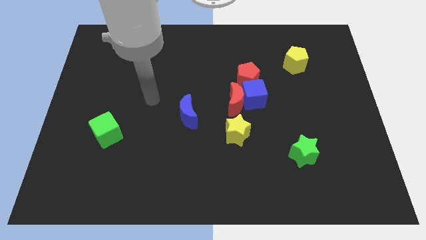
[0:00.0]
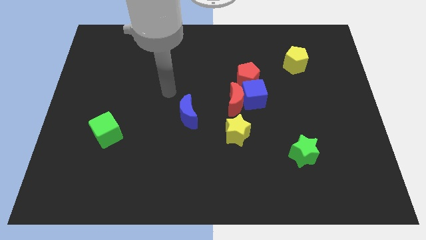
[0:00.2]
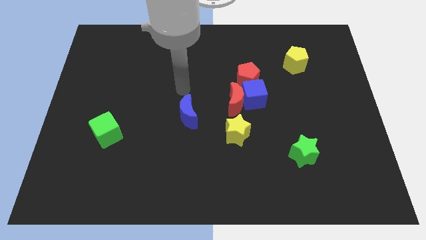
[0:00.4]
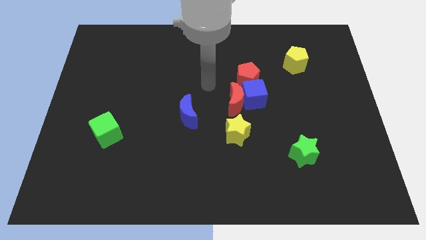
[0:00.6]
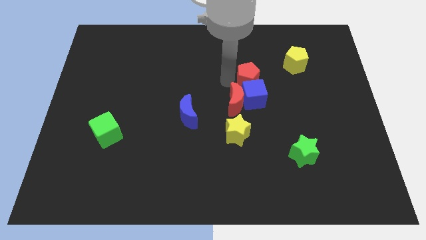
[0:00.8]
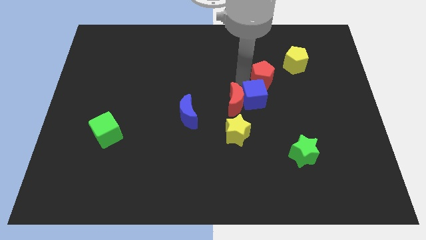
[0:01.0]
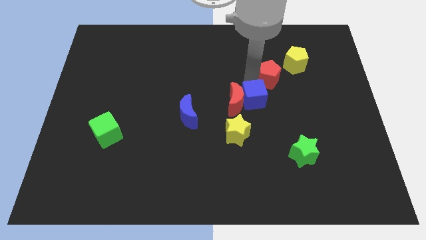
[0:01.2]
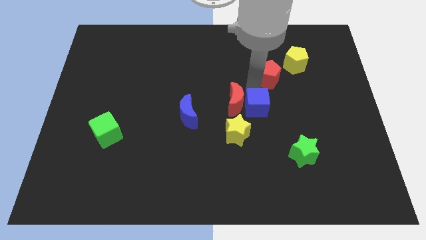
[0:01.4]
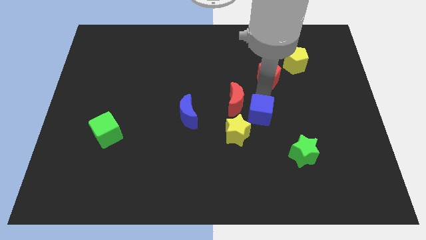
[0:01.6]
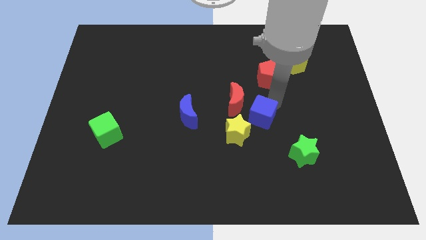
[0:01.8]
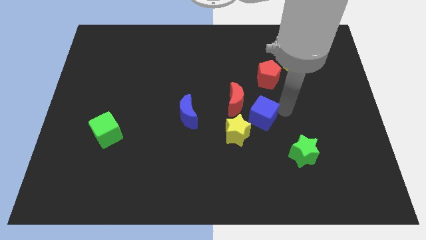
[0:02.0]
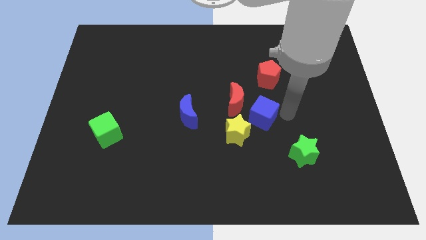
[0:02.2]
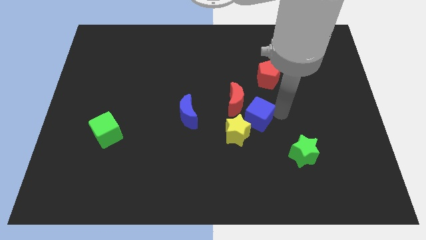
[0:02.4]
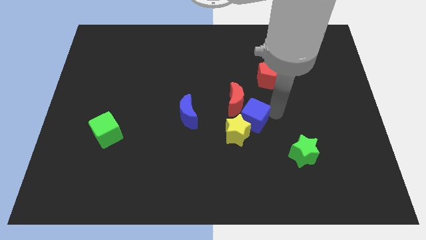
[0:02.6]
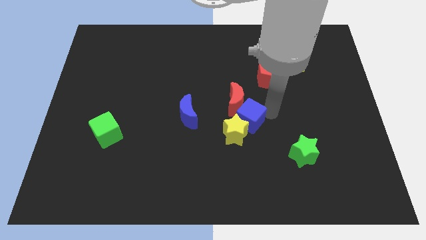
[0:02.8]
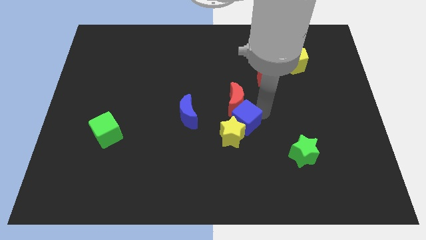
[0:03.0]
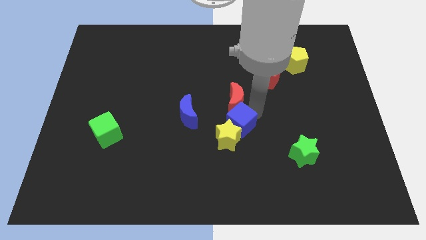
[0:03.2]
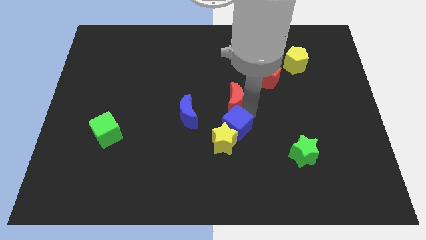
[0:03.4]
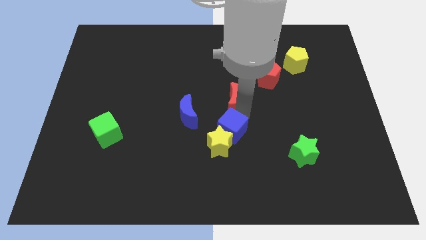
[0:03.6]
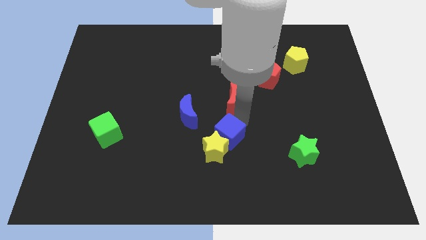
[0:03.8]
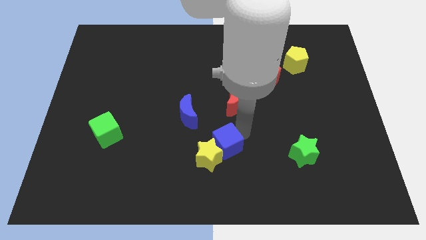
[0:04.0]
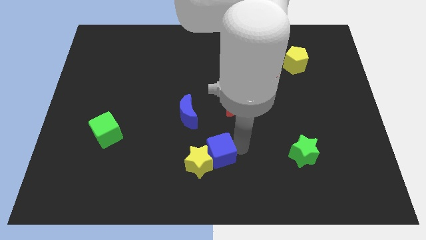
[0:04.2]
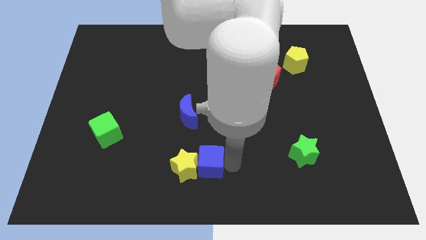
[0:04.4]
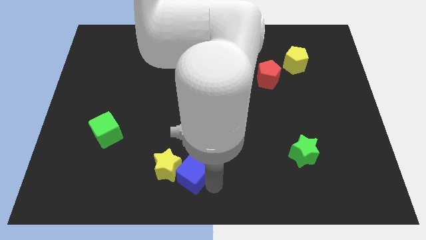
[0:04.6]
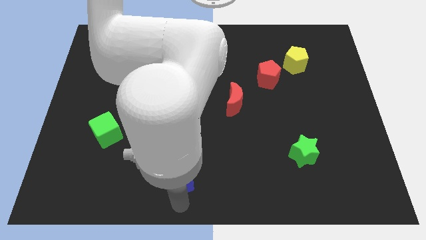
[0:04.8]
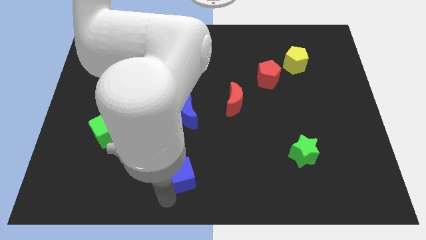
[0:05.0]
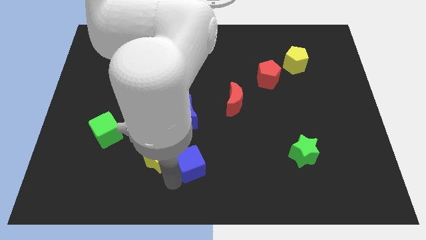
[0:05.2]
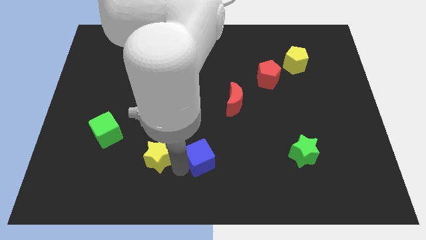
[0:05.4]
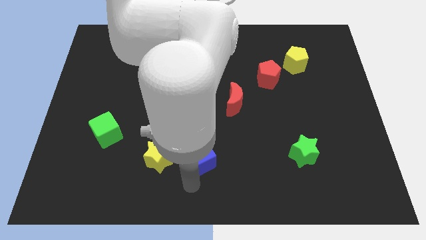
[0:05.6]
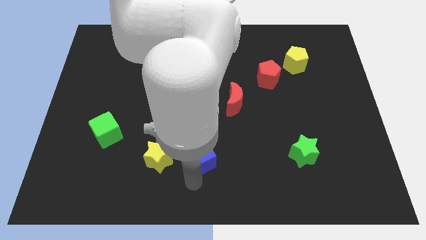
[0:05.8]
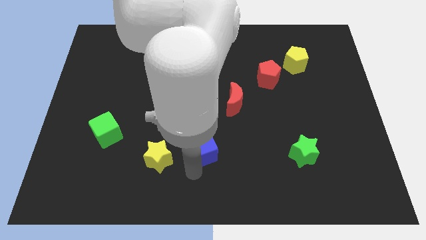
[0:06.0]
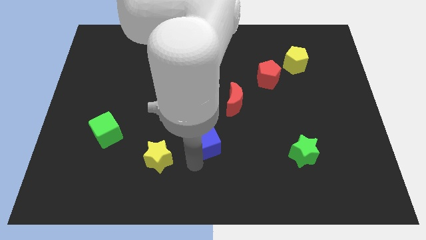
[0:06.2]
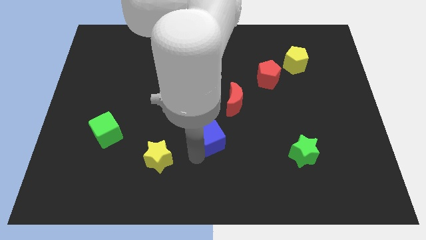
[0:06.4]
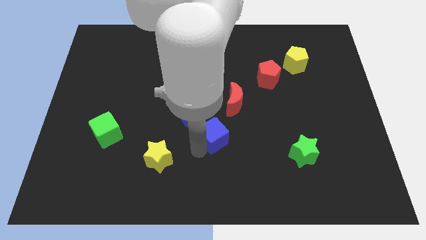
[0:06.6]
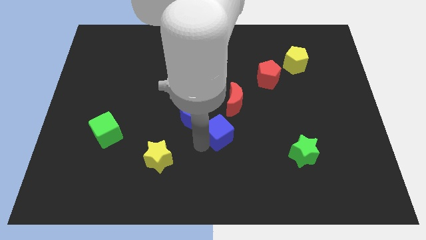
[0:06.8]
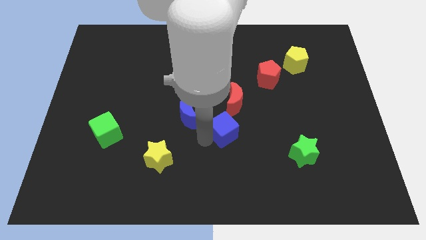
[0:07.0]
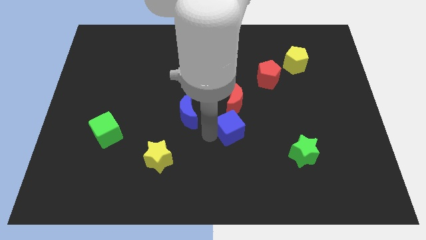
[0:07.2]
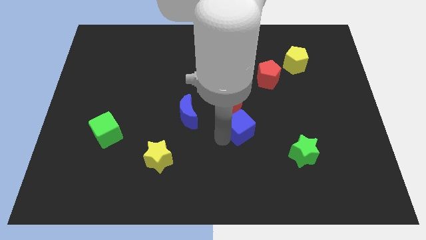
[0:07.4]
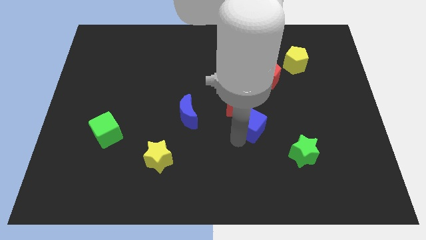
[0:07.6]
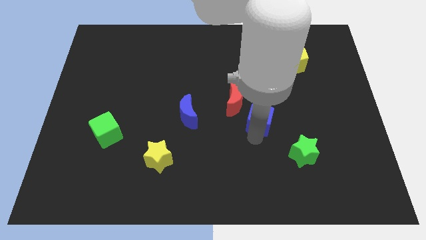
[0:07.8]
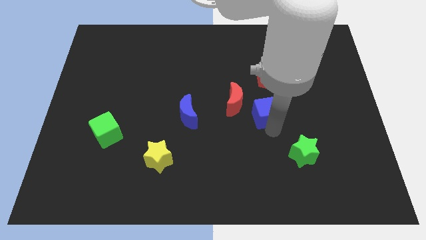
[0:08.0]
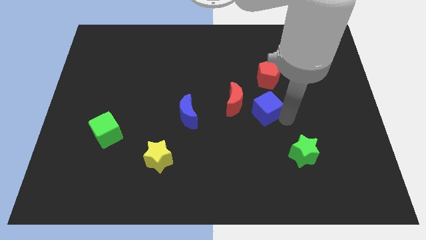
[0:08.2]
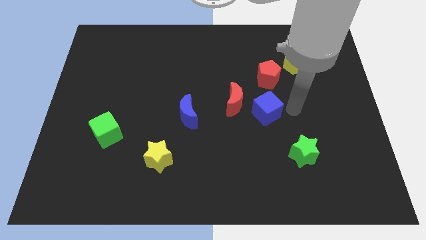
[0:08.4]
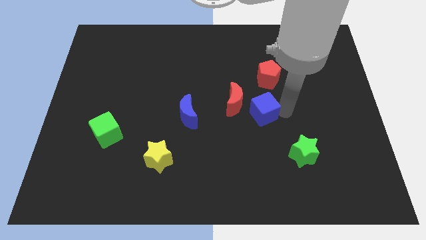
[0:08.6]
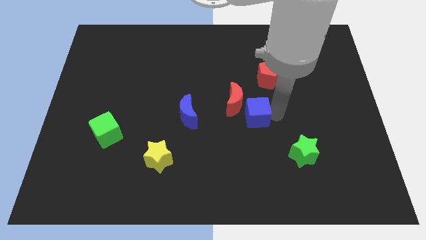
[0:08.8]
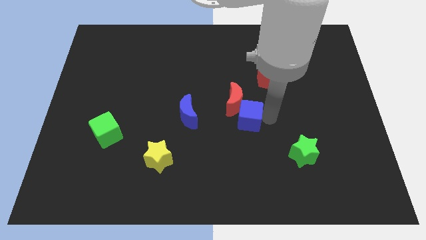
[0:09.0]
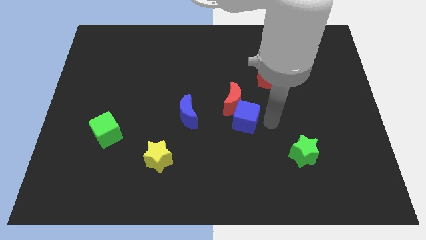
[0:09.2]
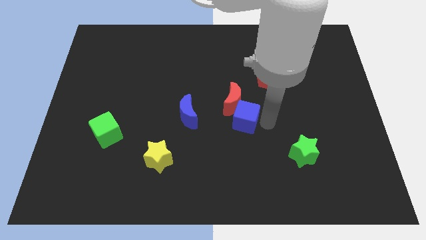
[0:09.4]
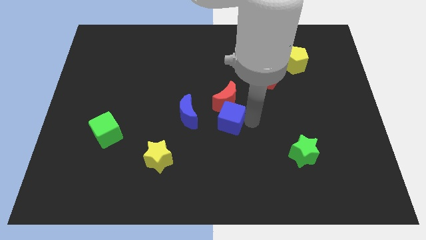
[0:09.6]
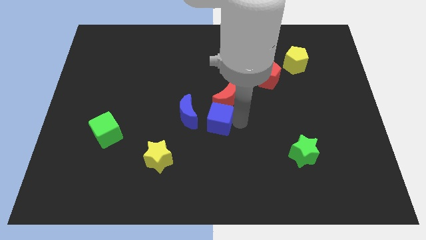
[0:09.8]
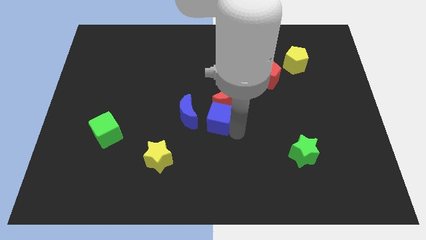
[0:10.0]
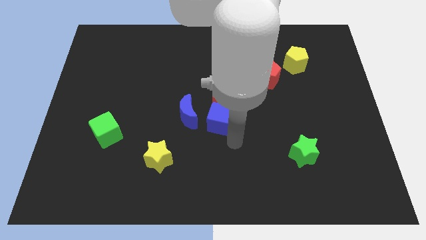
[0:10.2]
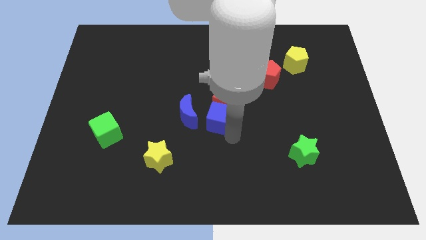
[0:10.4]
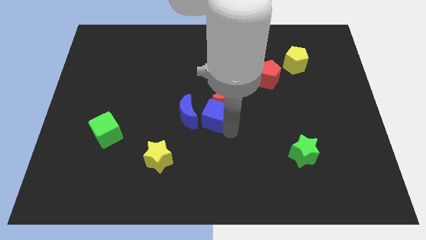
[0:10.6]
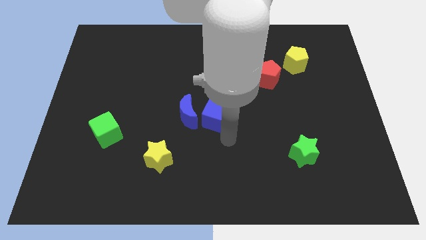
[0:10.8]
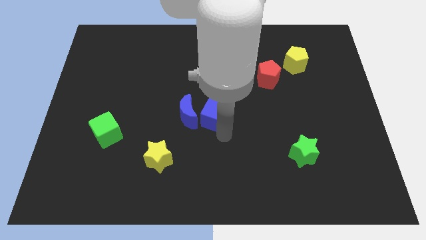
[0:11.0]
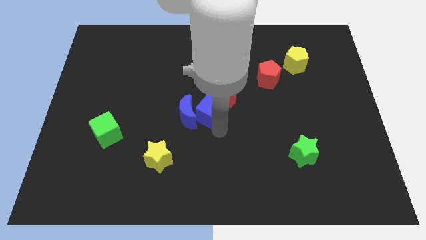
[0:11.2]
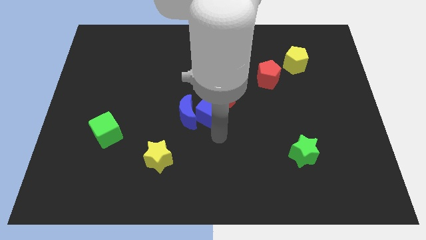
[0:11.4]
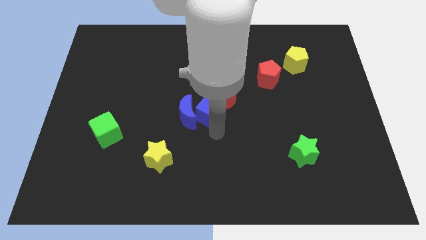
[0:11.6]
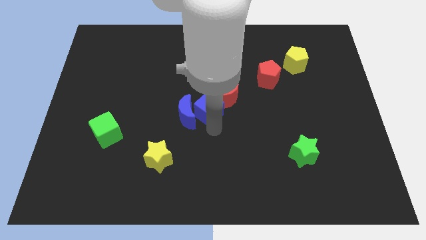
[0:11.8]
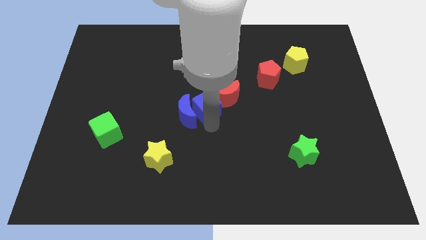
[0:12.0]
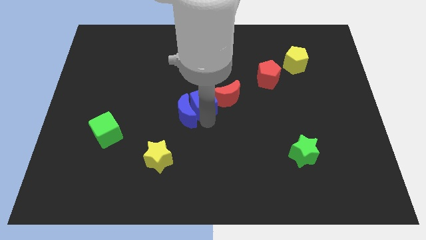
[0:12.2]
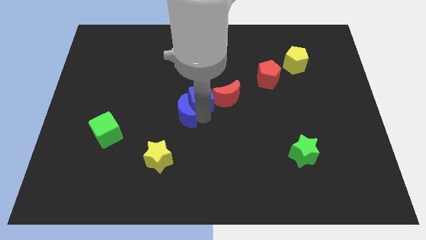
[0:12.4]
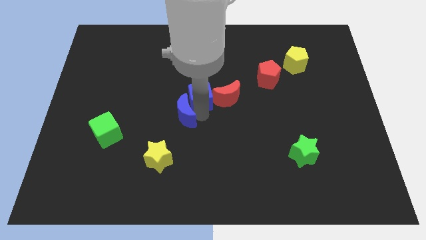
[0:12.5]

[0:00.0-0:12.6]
move the blue cube to the top left of the red moon

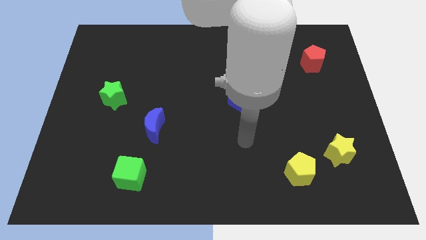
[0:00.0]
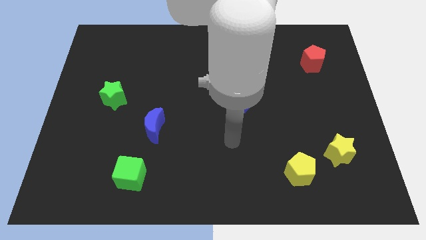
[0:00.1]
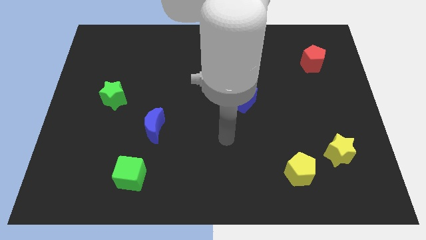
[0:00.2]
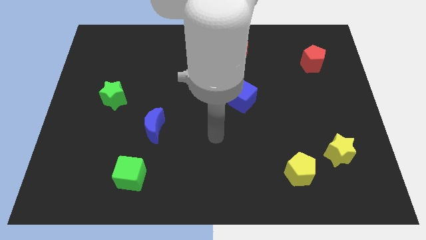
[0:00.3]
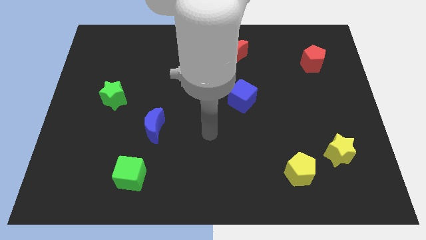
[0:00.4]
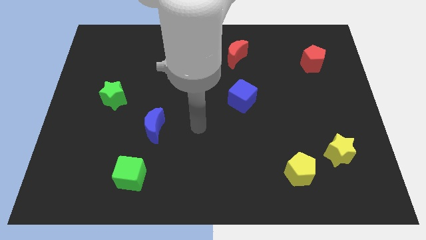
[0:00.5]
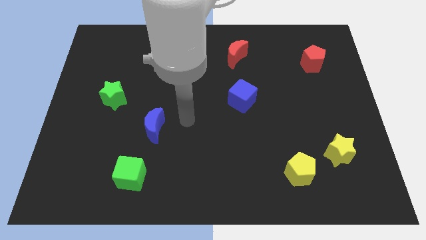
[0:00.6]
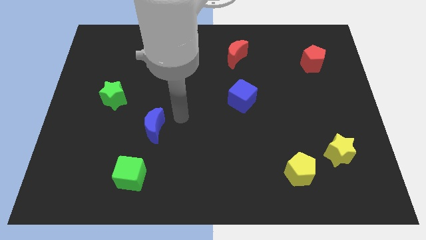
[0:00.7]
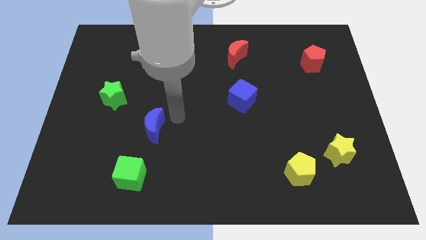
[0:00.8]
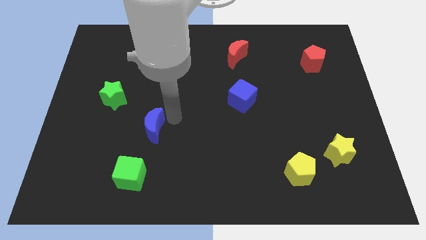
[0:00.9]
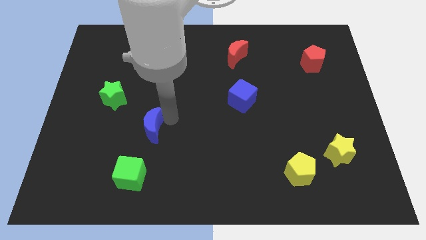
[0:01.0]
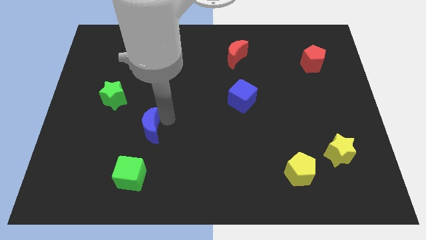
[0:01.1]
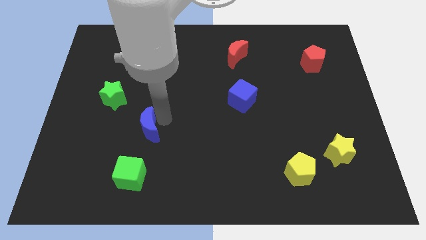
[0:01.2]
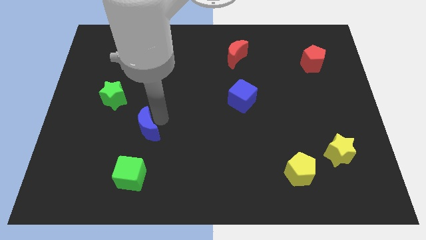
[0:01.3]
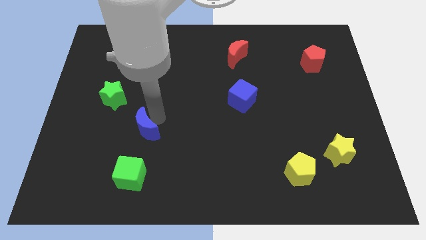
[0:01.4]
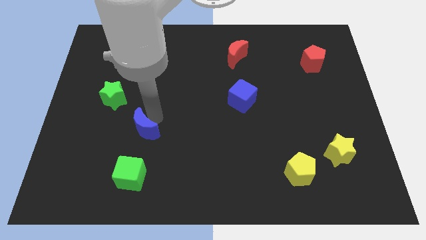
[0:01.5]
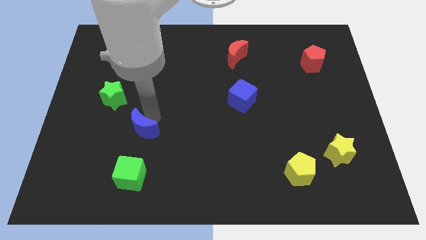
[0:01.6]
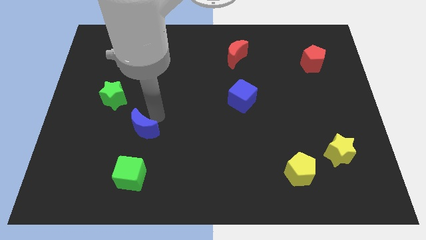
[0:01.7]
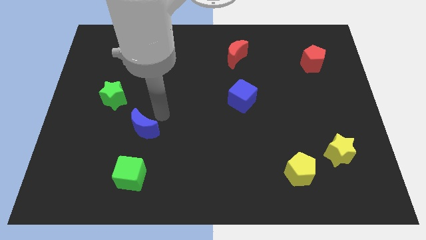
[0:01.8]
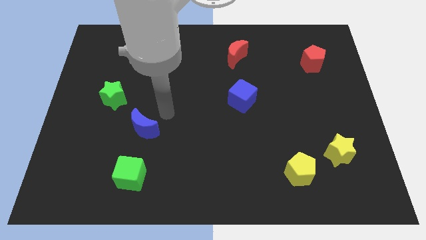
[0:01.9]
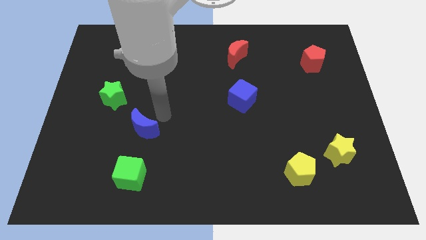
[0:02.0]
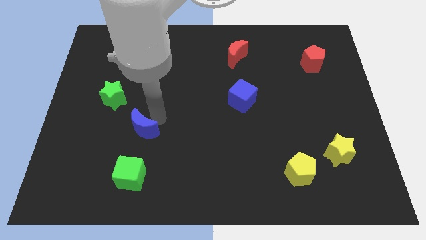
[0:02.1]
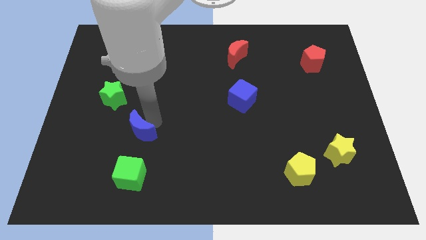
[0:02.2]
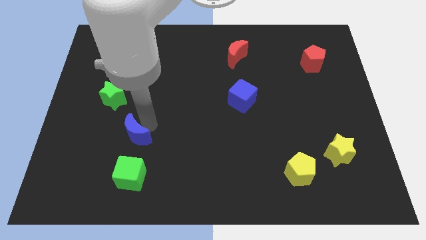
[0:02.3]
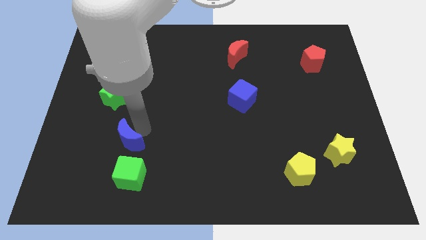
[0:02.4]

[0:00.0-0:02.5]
push the blue moon to the top left of the green cube
